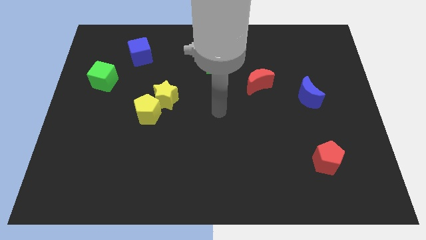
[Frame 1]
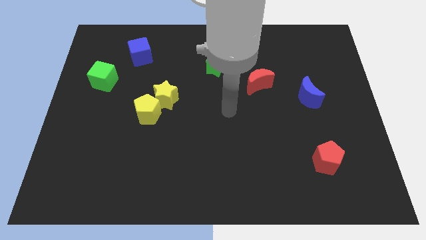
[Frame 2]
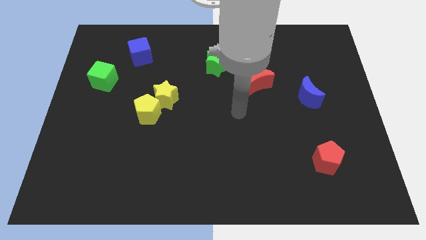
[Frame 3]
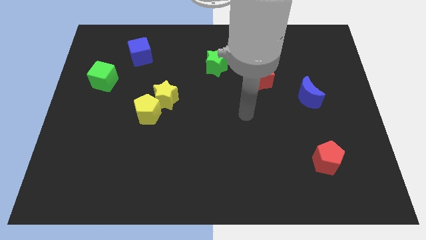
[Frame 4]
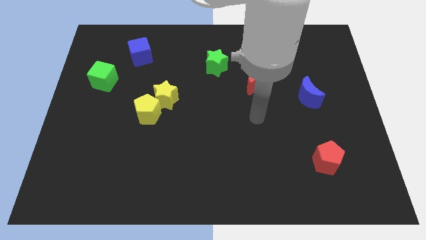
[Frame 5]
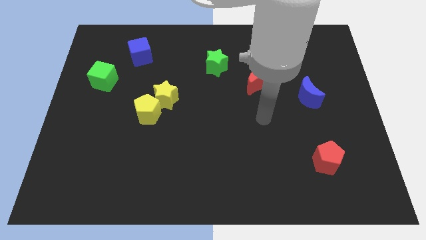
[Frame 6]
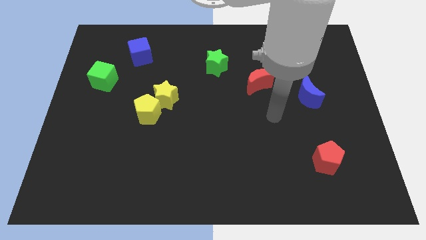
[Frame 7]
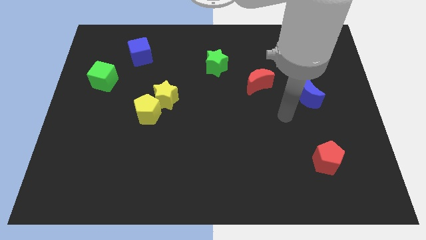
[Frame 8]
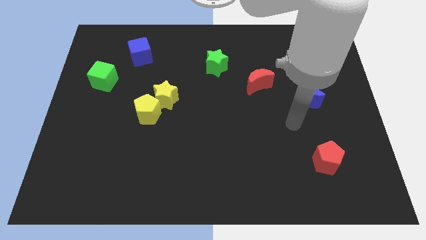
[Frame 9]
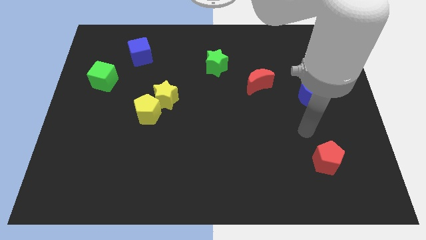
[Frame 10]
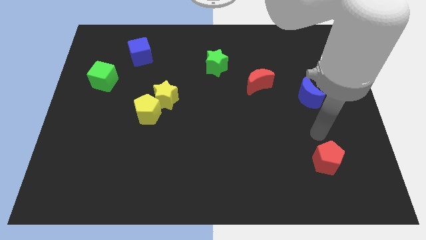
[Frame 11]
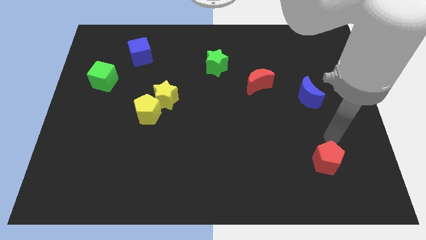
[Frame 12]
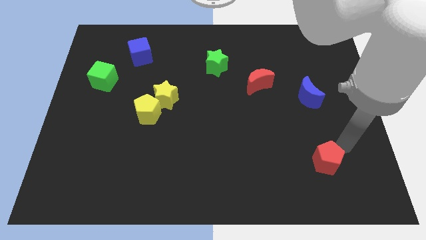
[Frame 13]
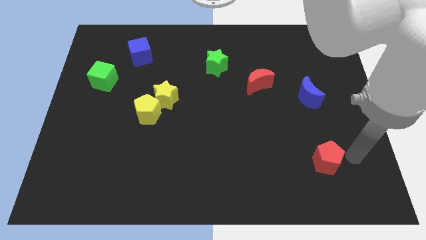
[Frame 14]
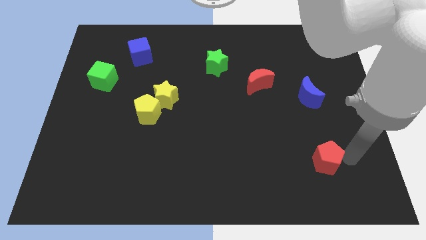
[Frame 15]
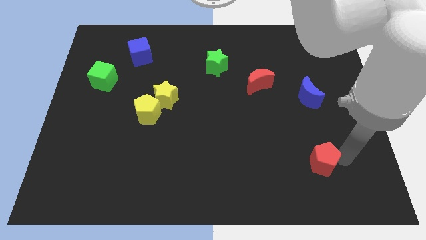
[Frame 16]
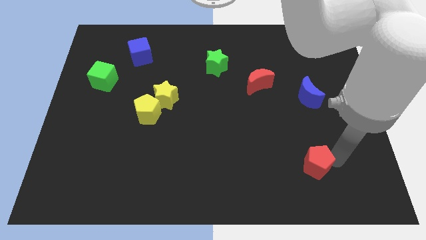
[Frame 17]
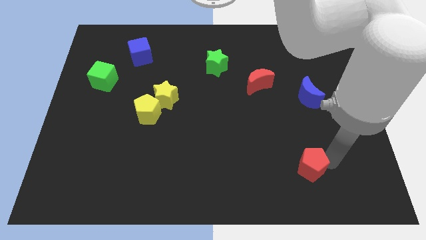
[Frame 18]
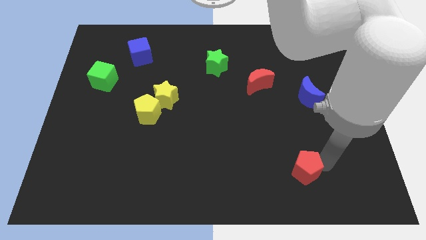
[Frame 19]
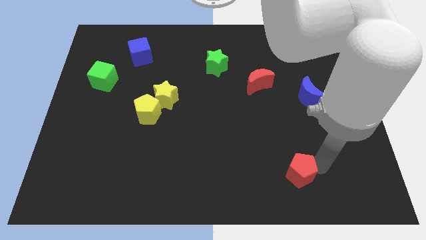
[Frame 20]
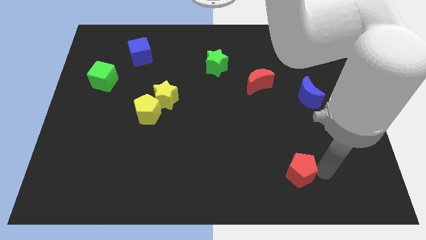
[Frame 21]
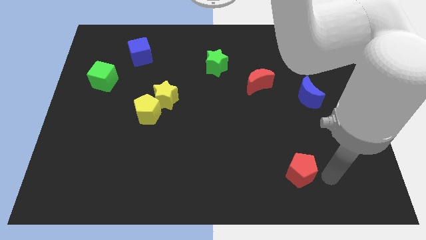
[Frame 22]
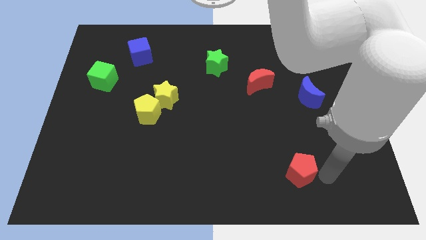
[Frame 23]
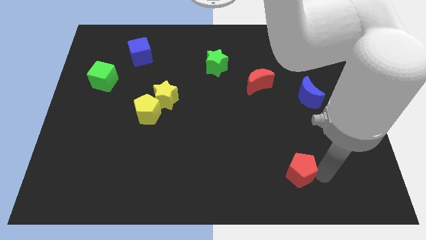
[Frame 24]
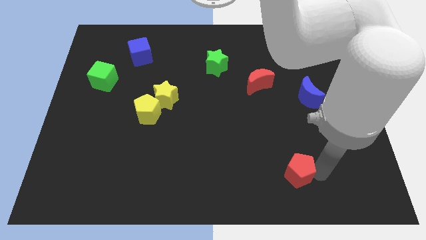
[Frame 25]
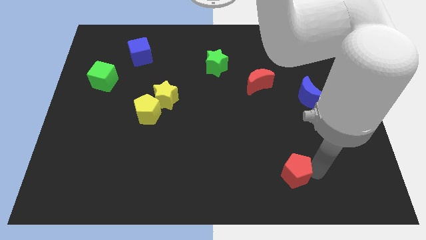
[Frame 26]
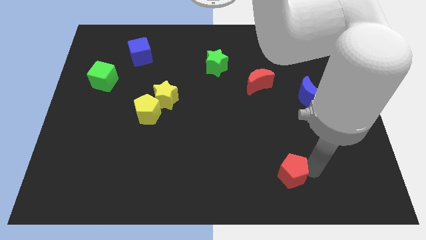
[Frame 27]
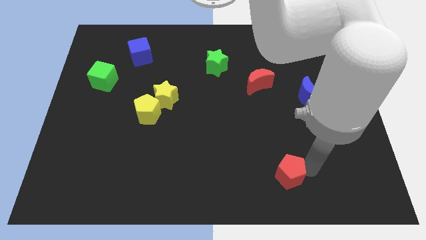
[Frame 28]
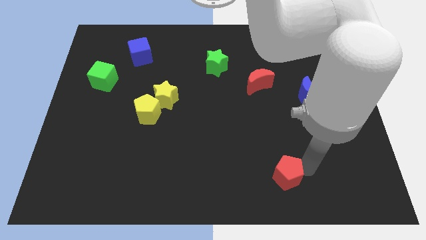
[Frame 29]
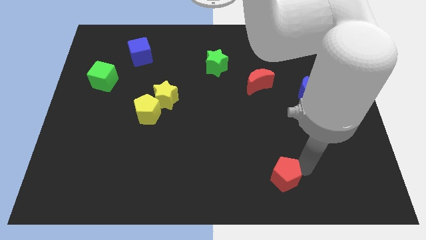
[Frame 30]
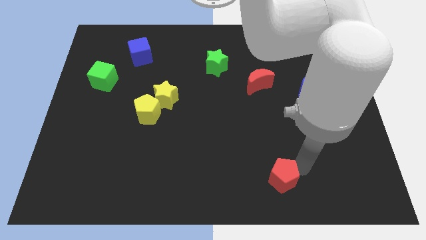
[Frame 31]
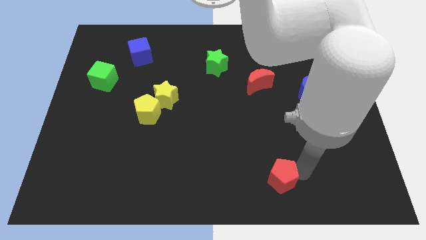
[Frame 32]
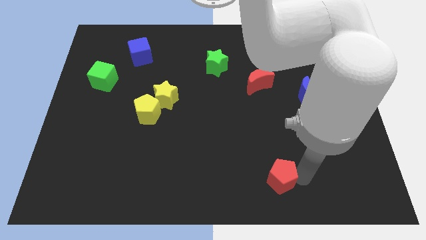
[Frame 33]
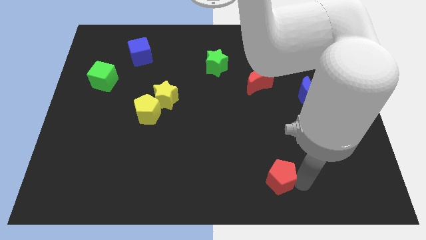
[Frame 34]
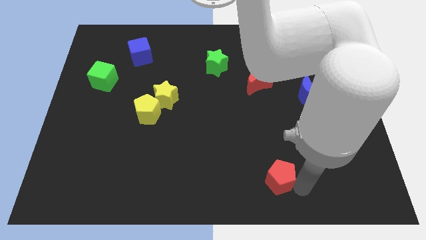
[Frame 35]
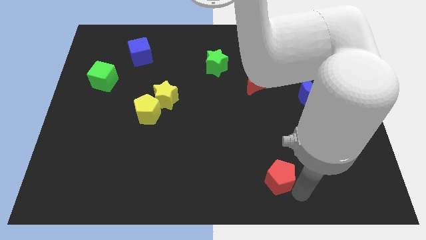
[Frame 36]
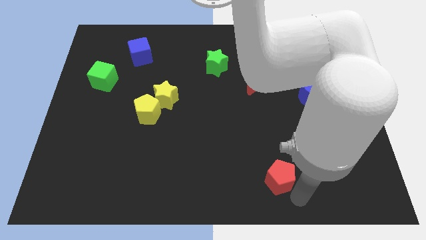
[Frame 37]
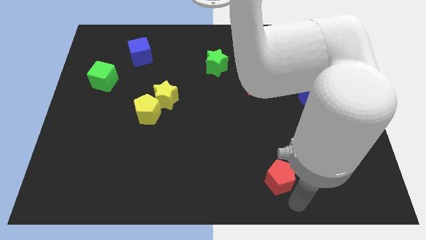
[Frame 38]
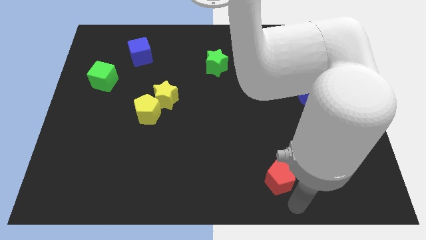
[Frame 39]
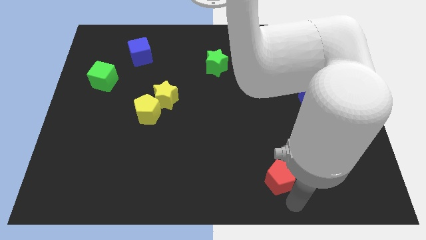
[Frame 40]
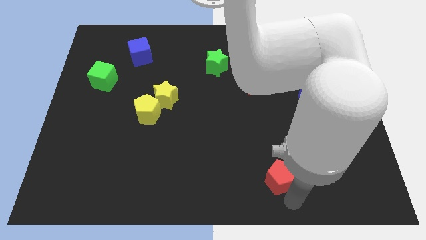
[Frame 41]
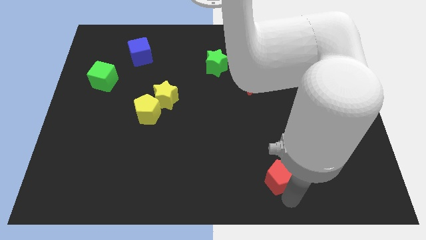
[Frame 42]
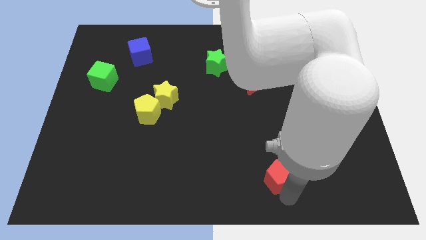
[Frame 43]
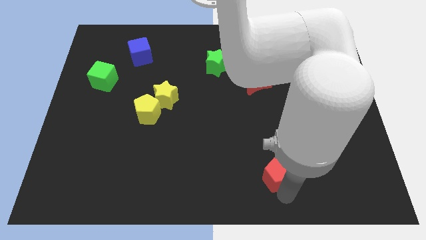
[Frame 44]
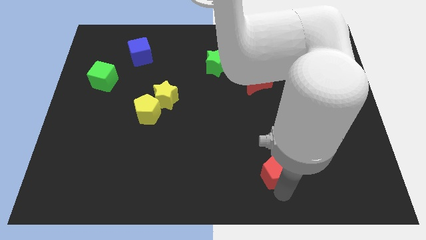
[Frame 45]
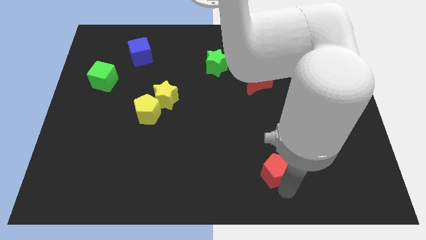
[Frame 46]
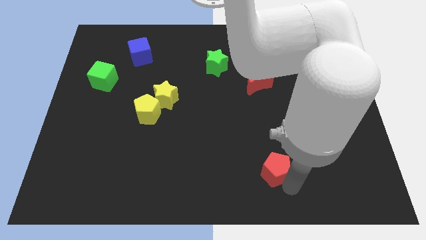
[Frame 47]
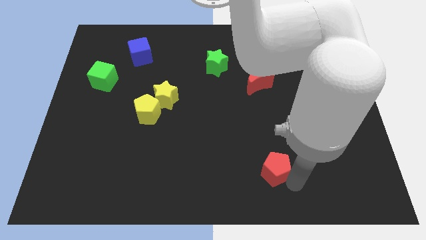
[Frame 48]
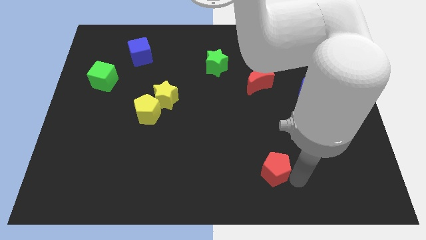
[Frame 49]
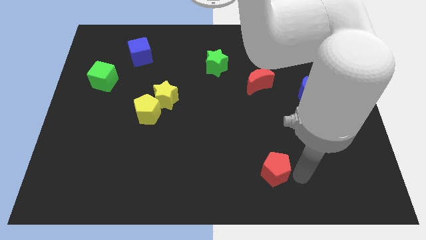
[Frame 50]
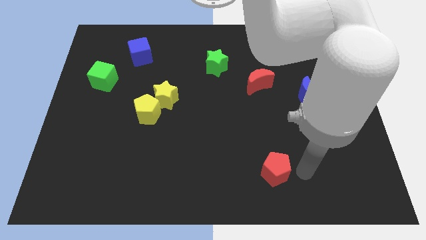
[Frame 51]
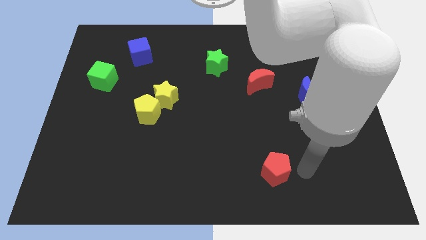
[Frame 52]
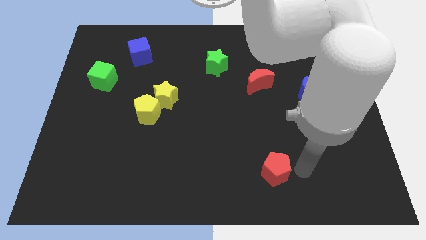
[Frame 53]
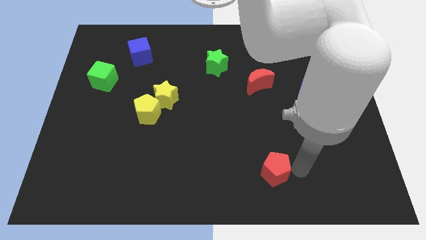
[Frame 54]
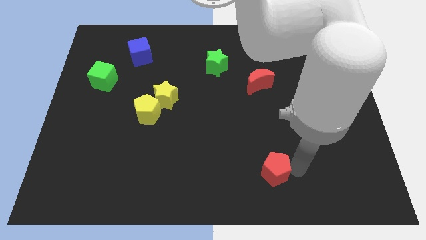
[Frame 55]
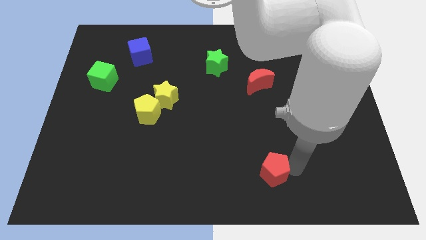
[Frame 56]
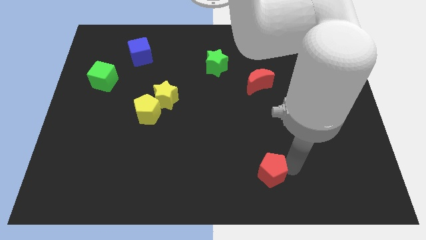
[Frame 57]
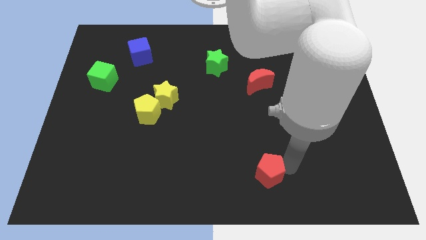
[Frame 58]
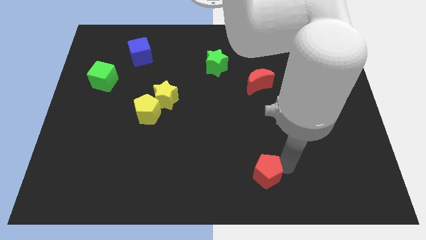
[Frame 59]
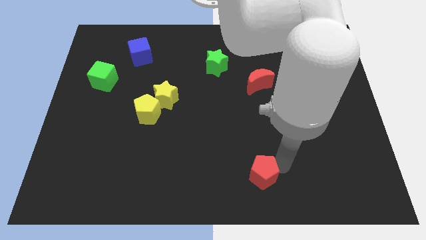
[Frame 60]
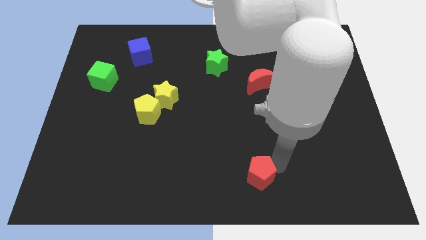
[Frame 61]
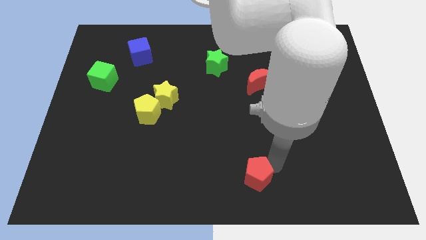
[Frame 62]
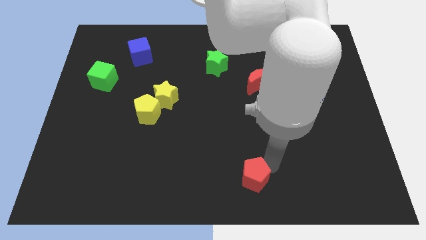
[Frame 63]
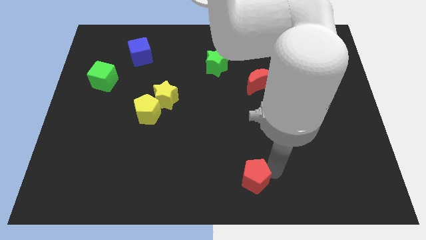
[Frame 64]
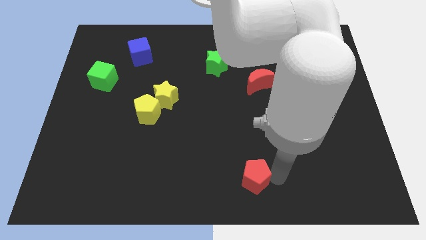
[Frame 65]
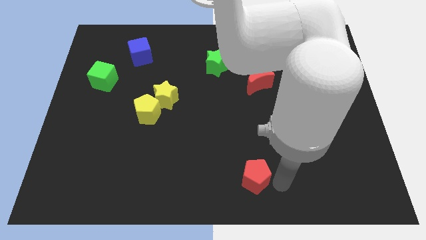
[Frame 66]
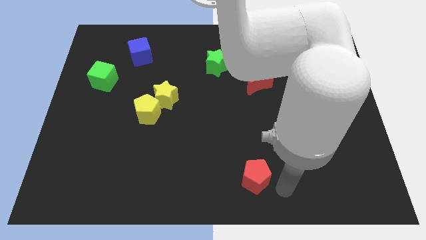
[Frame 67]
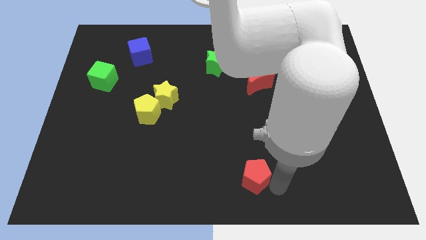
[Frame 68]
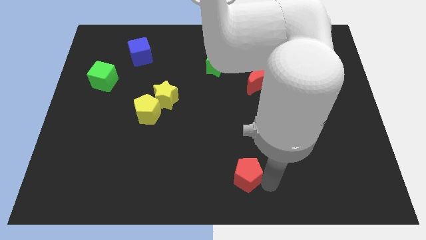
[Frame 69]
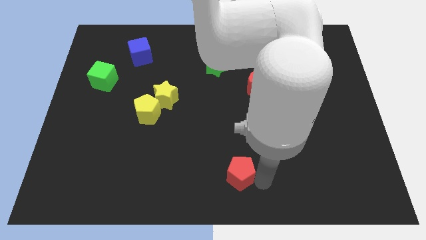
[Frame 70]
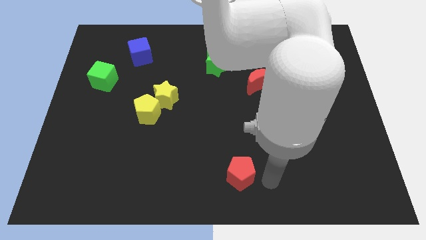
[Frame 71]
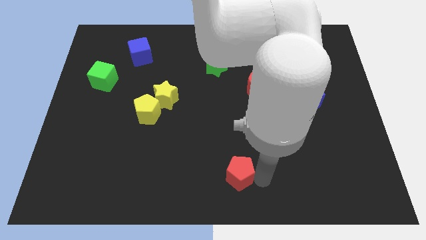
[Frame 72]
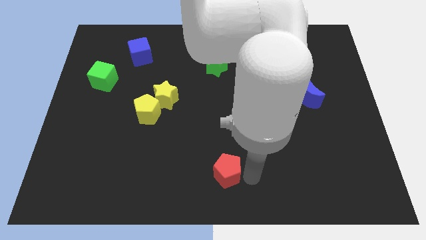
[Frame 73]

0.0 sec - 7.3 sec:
push the red pentagon to the left

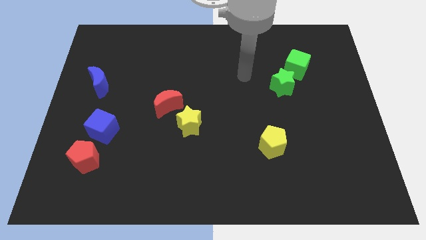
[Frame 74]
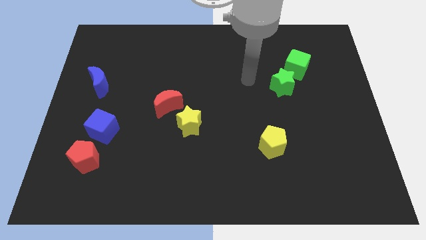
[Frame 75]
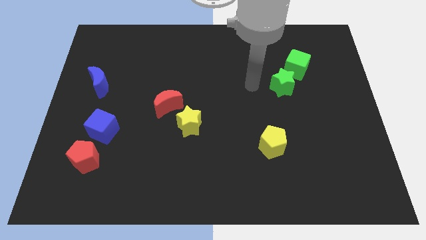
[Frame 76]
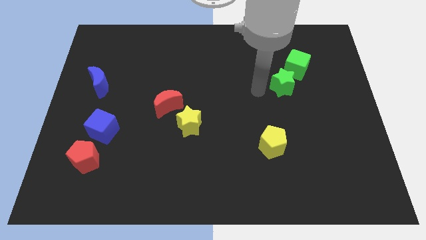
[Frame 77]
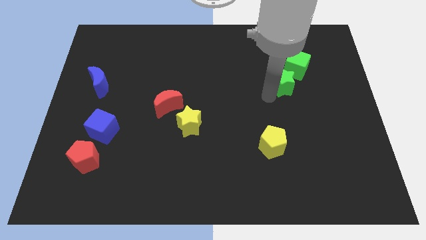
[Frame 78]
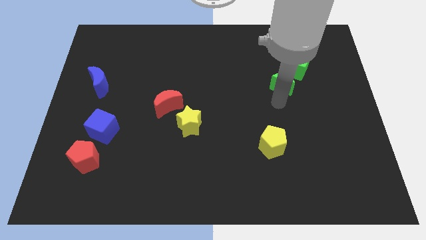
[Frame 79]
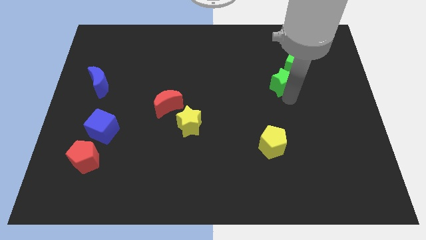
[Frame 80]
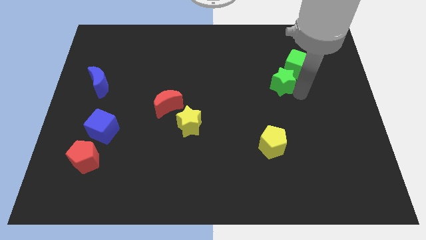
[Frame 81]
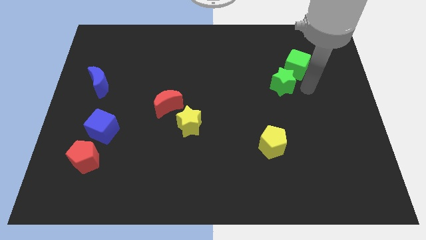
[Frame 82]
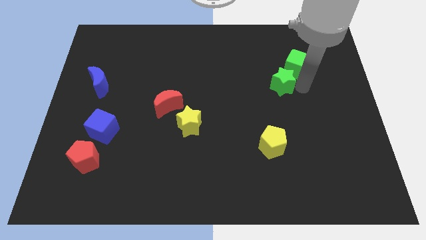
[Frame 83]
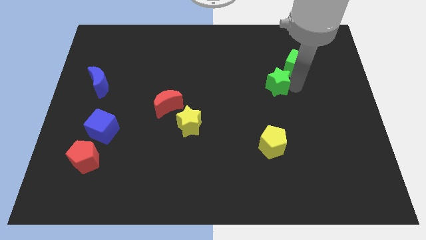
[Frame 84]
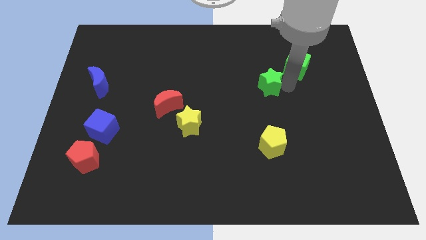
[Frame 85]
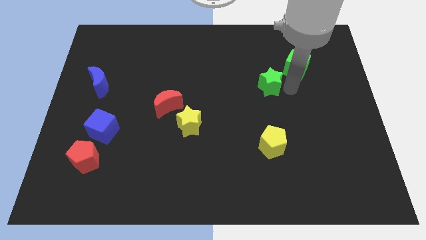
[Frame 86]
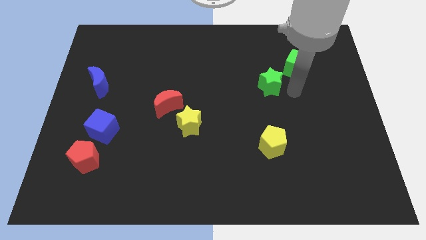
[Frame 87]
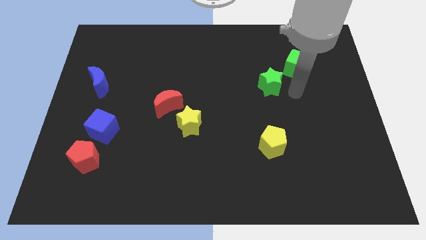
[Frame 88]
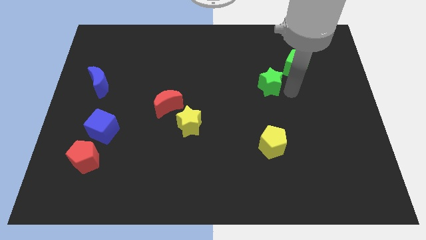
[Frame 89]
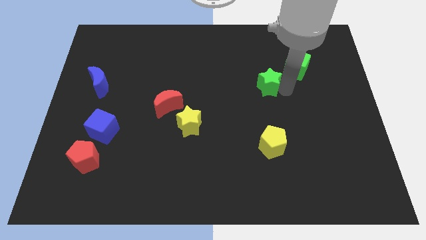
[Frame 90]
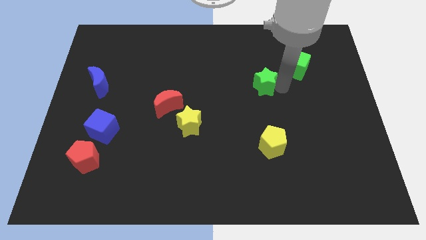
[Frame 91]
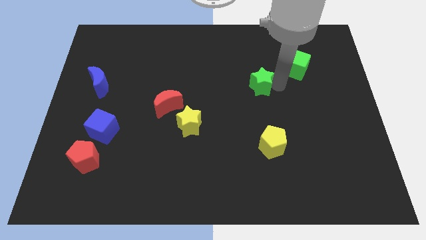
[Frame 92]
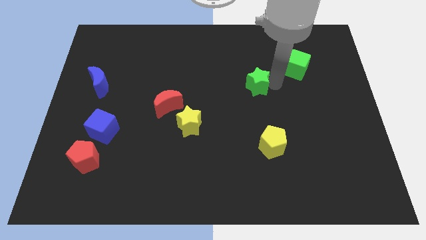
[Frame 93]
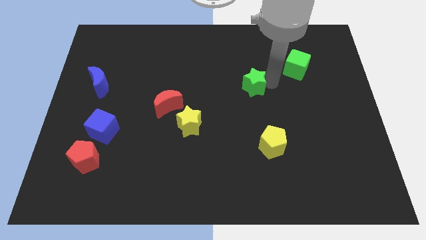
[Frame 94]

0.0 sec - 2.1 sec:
slide the green star to the left slightly
